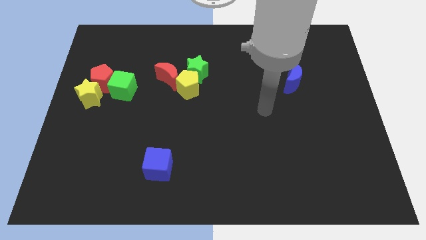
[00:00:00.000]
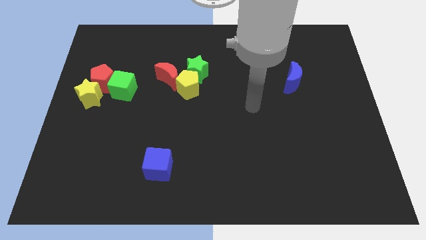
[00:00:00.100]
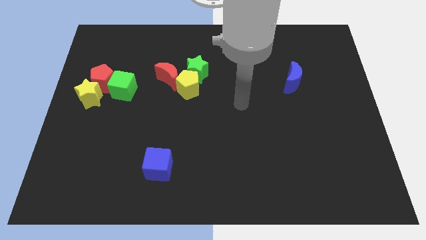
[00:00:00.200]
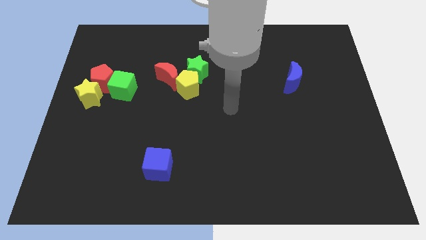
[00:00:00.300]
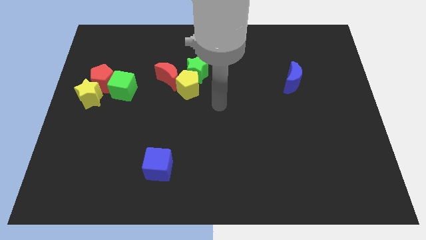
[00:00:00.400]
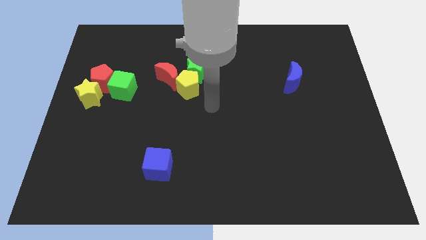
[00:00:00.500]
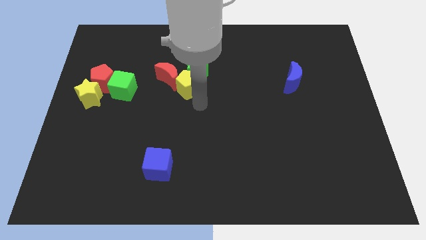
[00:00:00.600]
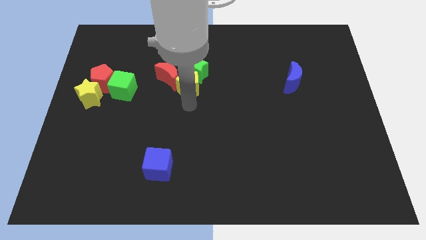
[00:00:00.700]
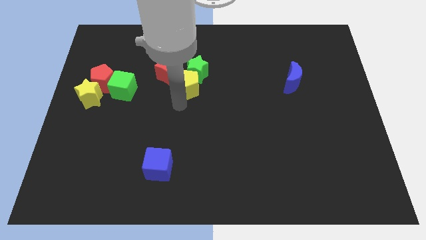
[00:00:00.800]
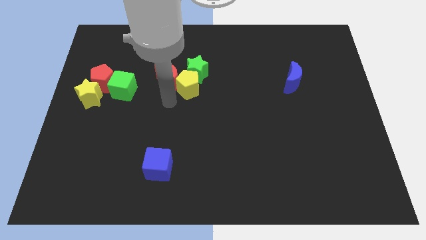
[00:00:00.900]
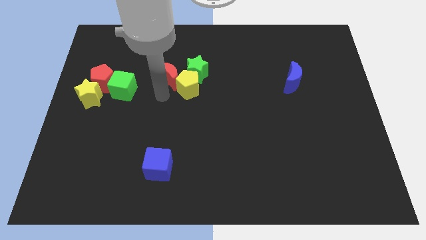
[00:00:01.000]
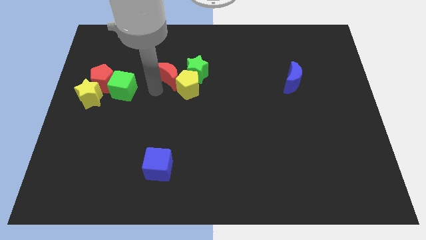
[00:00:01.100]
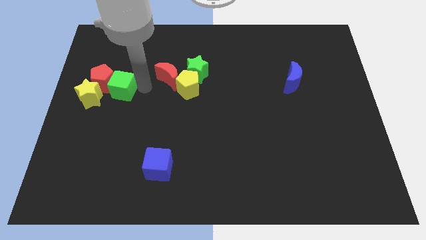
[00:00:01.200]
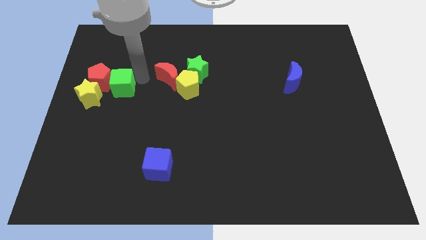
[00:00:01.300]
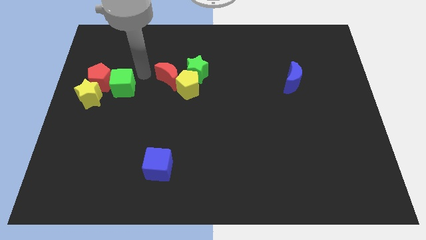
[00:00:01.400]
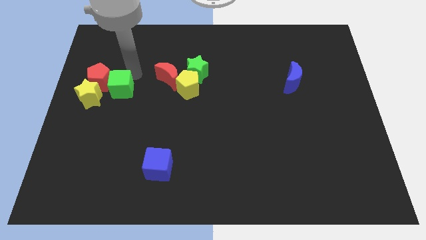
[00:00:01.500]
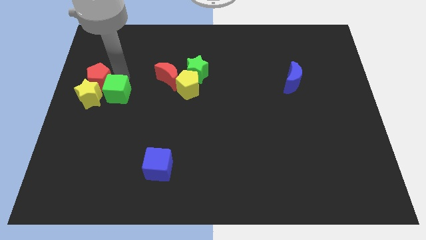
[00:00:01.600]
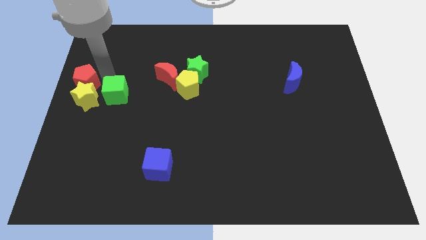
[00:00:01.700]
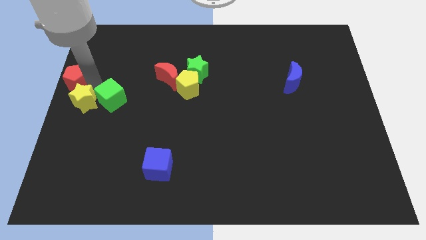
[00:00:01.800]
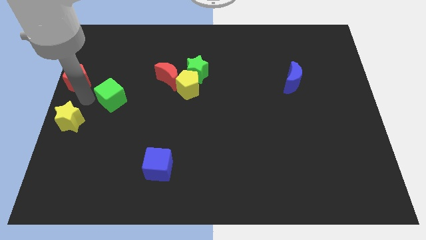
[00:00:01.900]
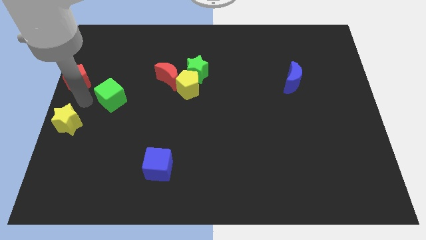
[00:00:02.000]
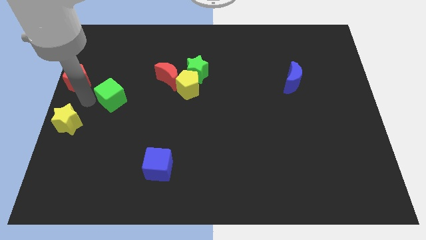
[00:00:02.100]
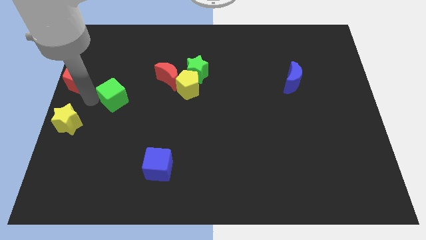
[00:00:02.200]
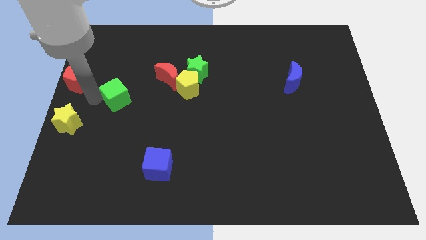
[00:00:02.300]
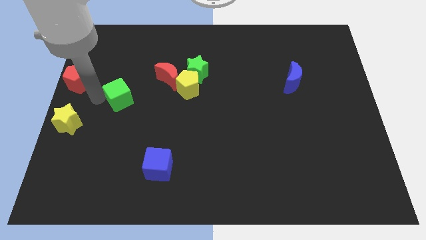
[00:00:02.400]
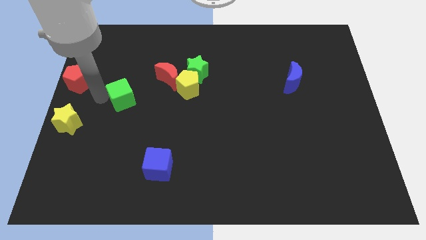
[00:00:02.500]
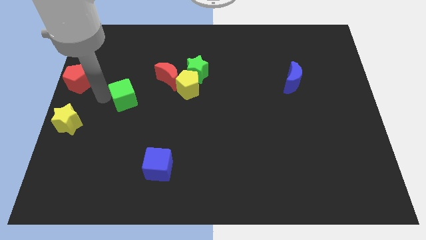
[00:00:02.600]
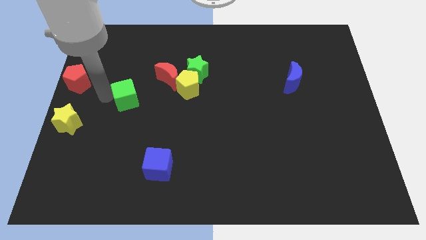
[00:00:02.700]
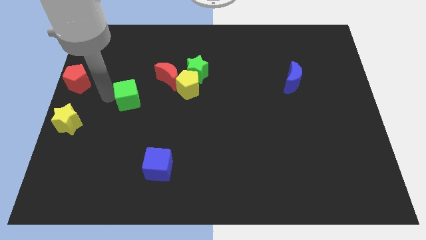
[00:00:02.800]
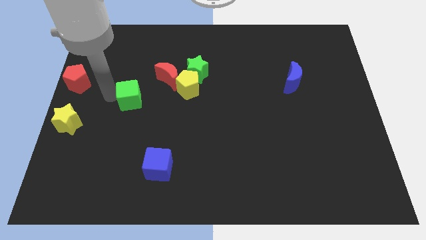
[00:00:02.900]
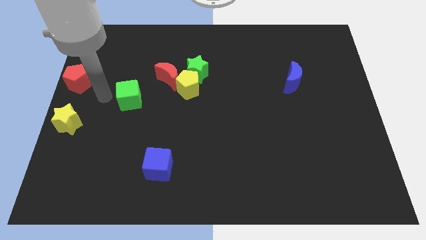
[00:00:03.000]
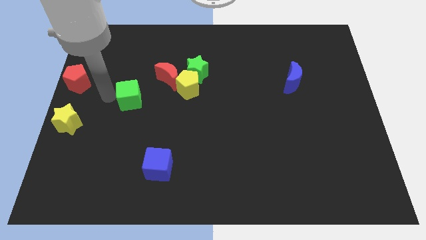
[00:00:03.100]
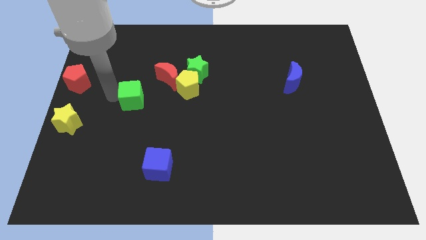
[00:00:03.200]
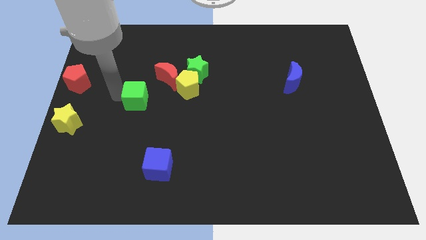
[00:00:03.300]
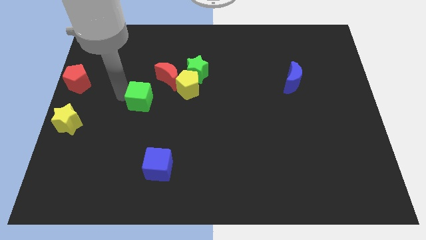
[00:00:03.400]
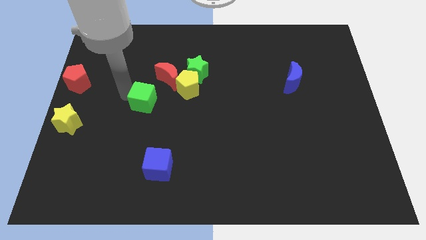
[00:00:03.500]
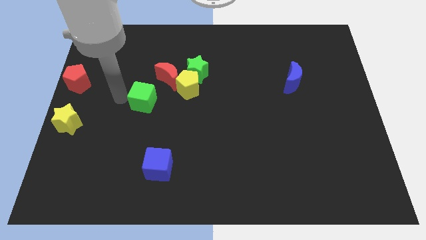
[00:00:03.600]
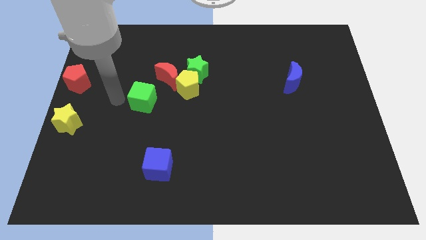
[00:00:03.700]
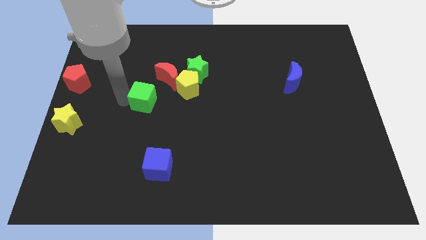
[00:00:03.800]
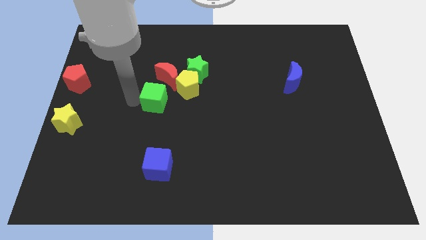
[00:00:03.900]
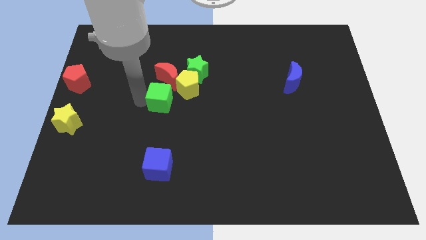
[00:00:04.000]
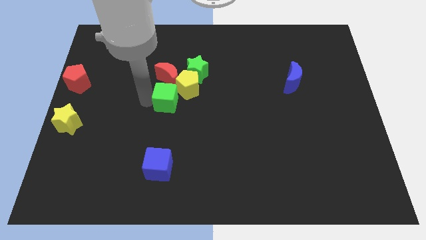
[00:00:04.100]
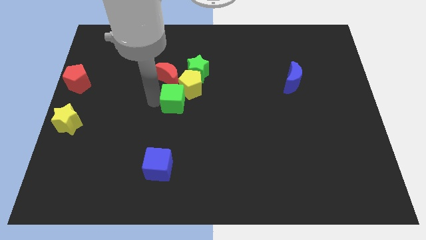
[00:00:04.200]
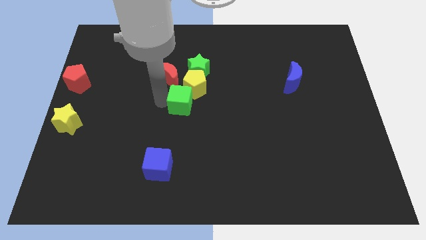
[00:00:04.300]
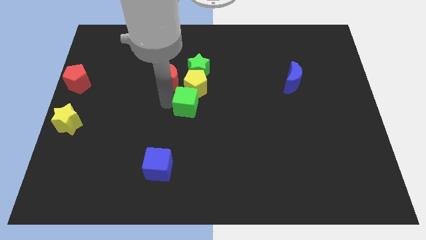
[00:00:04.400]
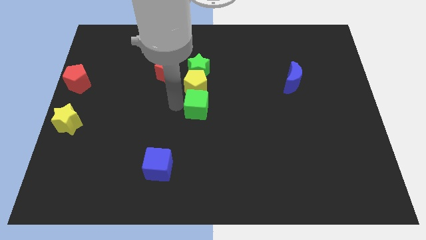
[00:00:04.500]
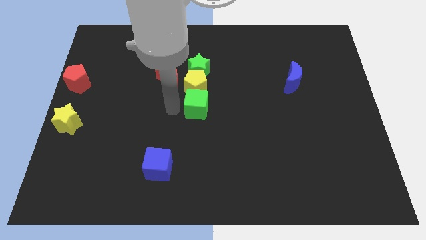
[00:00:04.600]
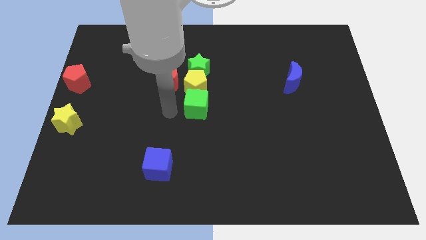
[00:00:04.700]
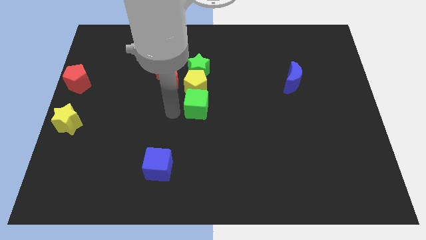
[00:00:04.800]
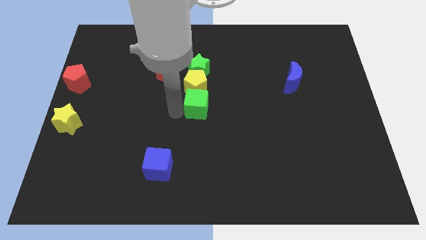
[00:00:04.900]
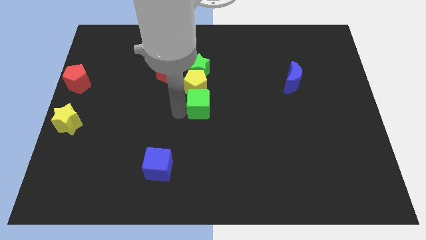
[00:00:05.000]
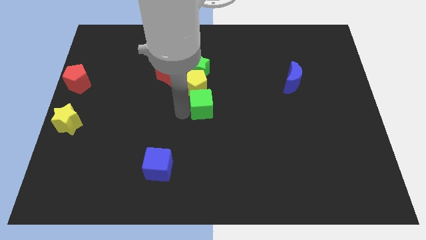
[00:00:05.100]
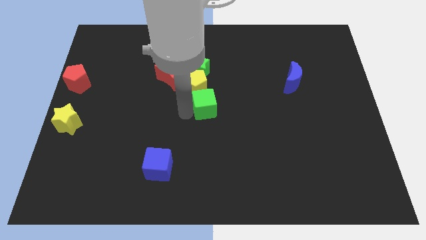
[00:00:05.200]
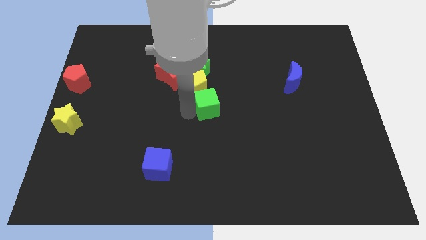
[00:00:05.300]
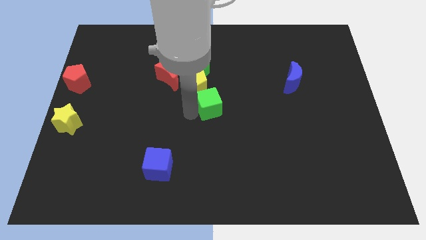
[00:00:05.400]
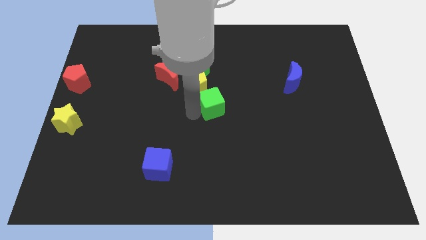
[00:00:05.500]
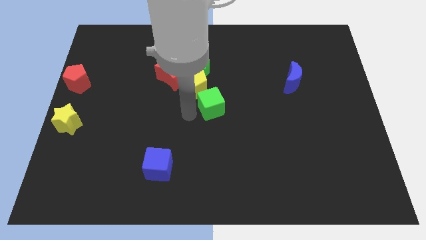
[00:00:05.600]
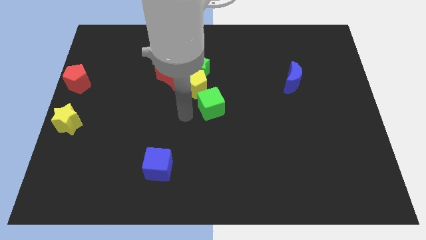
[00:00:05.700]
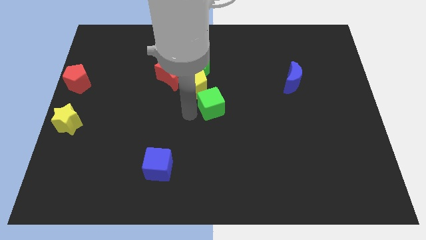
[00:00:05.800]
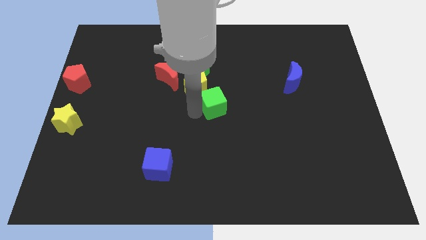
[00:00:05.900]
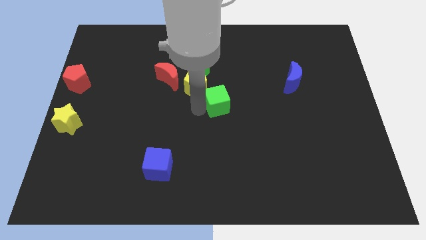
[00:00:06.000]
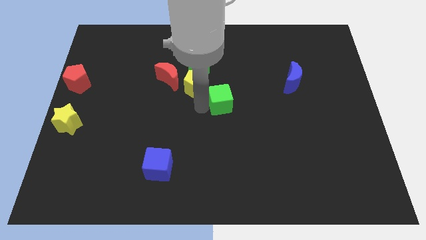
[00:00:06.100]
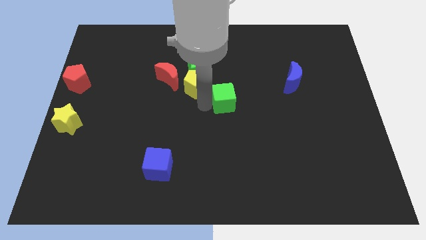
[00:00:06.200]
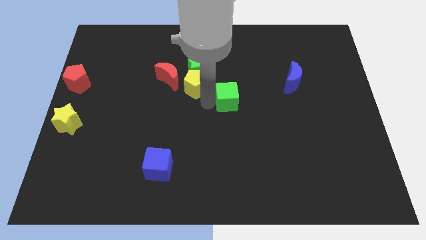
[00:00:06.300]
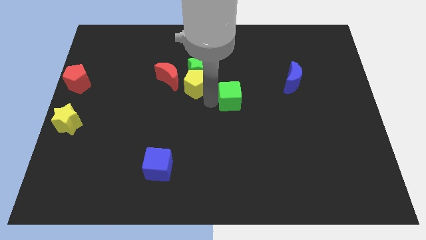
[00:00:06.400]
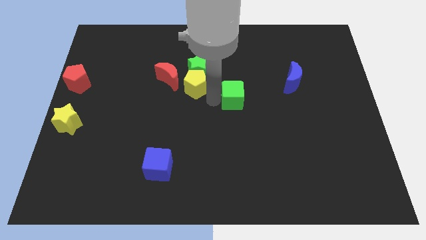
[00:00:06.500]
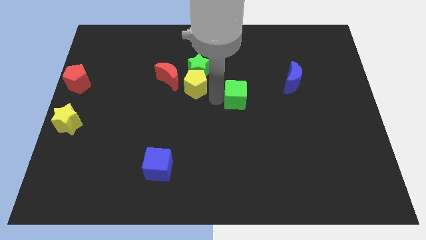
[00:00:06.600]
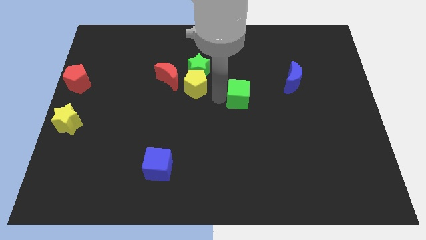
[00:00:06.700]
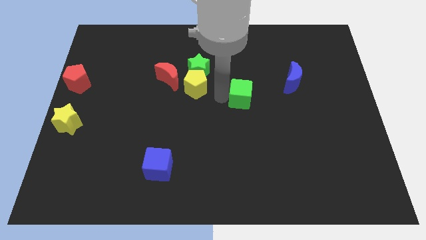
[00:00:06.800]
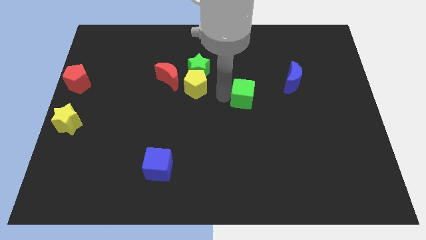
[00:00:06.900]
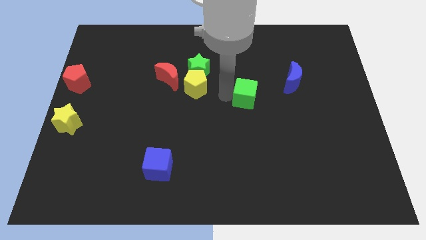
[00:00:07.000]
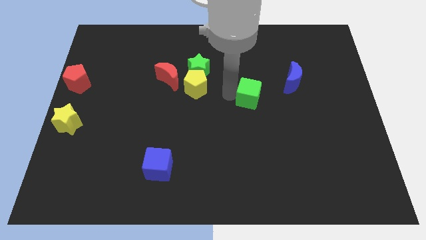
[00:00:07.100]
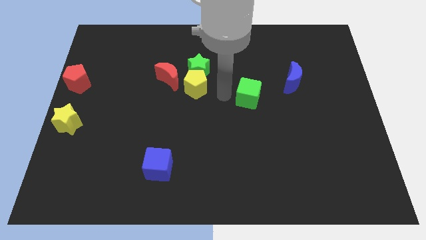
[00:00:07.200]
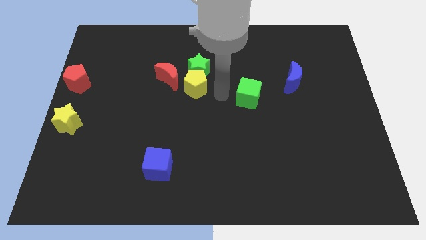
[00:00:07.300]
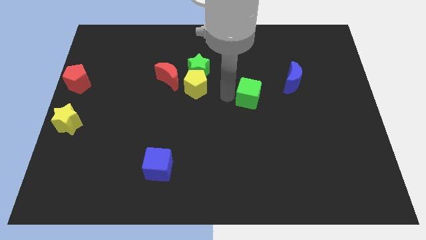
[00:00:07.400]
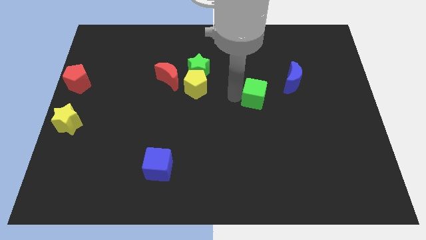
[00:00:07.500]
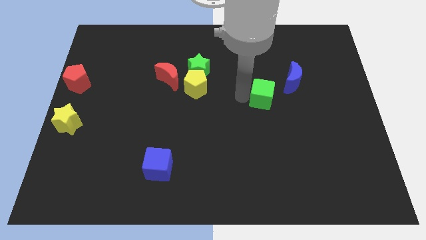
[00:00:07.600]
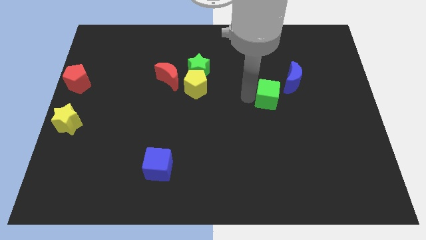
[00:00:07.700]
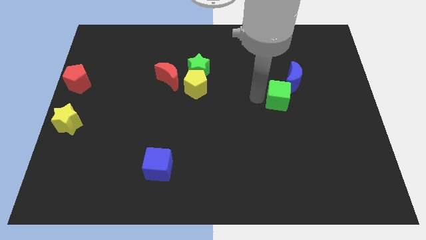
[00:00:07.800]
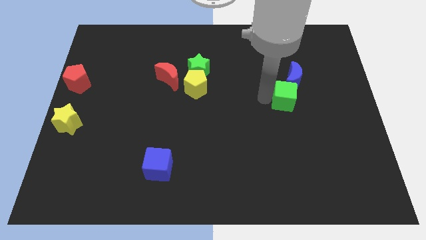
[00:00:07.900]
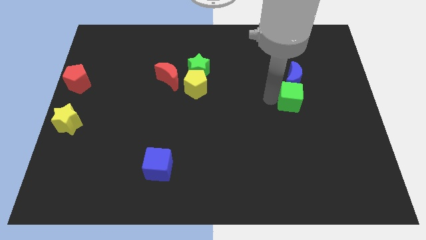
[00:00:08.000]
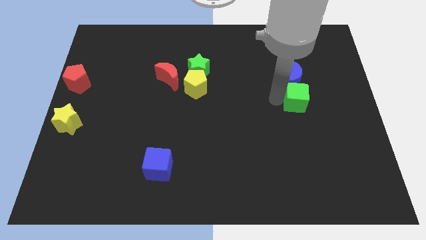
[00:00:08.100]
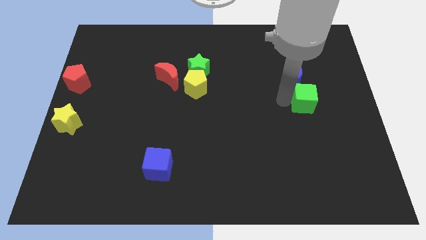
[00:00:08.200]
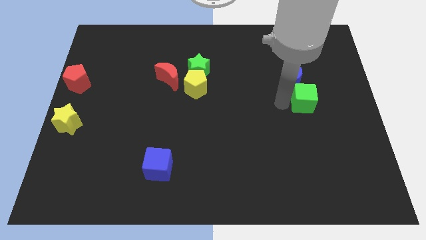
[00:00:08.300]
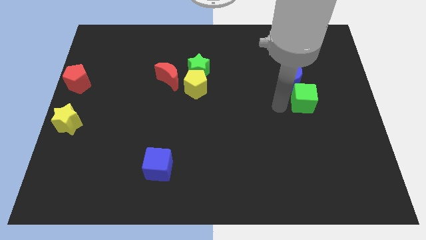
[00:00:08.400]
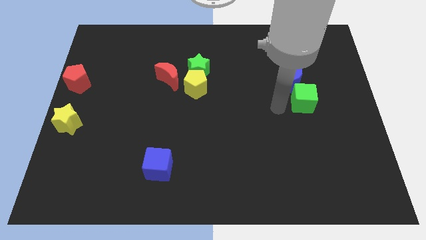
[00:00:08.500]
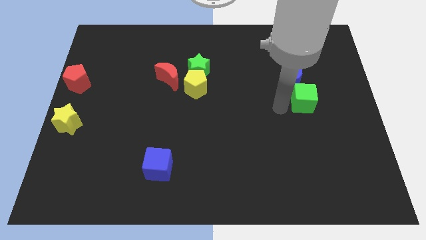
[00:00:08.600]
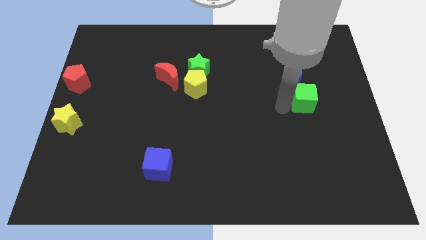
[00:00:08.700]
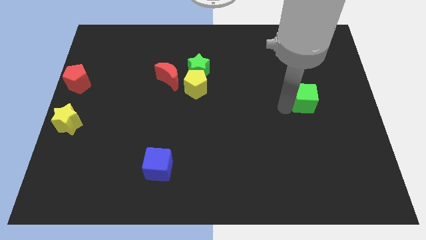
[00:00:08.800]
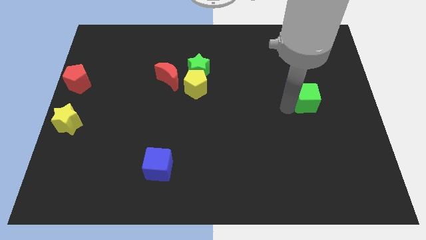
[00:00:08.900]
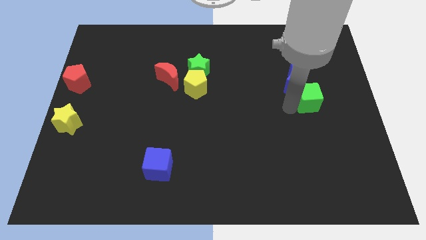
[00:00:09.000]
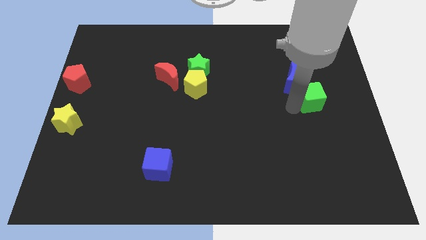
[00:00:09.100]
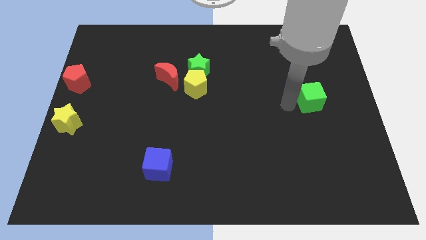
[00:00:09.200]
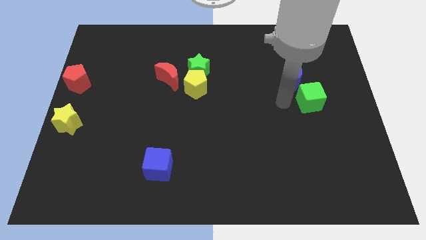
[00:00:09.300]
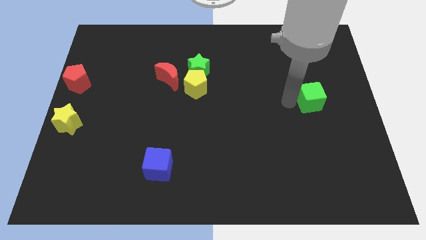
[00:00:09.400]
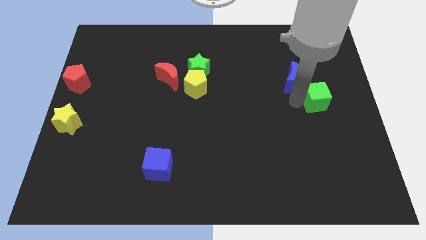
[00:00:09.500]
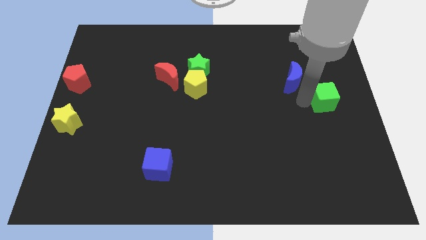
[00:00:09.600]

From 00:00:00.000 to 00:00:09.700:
put the green cube to the right side
